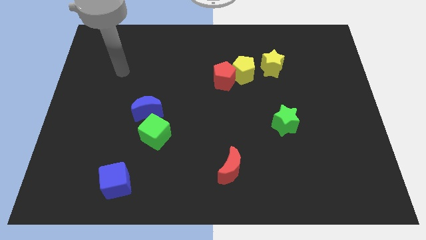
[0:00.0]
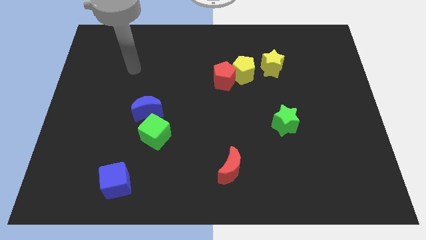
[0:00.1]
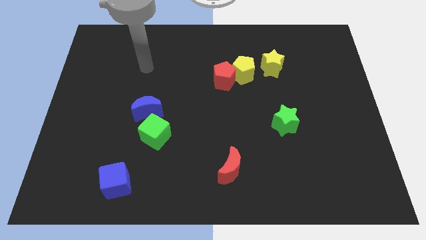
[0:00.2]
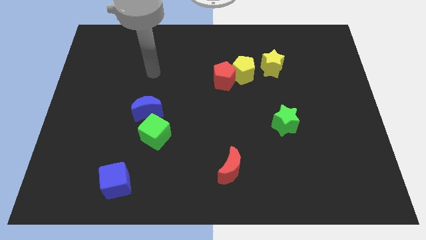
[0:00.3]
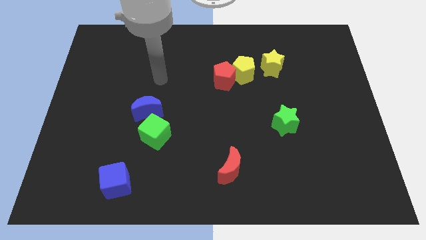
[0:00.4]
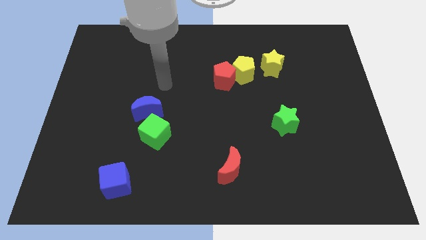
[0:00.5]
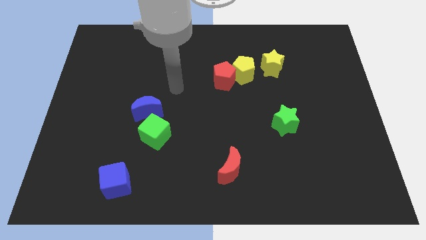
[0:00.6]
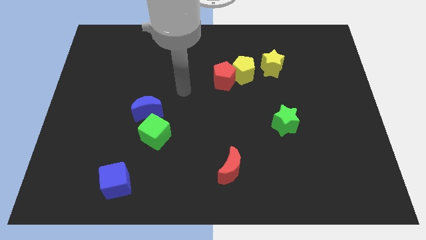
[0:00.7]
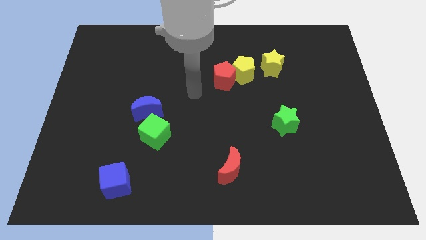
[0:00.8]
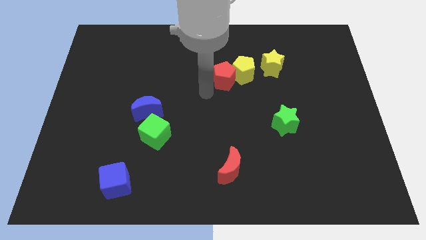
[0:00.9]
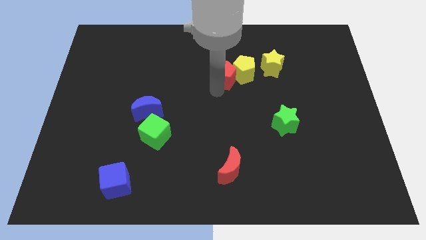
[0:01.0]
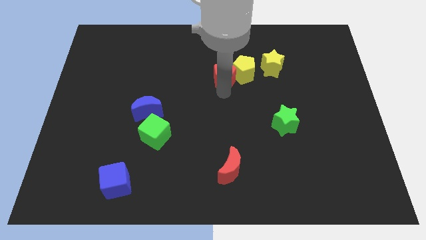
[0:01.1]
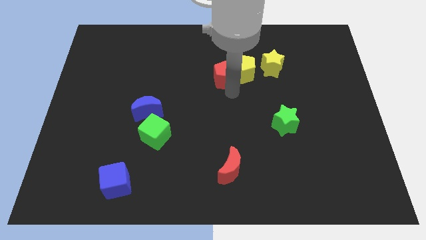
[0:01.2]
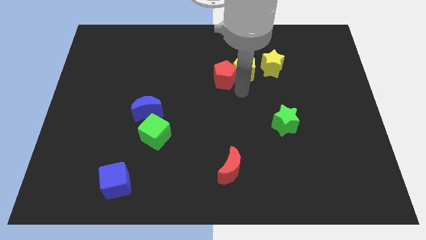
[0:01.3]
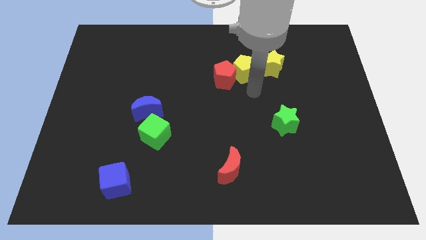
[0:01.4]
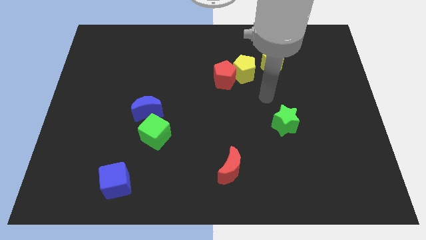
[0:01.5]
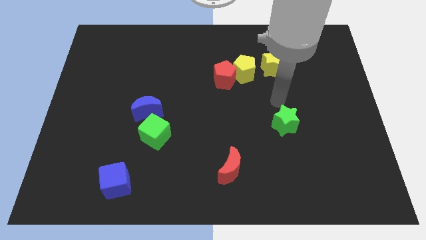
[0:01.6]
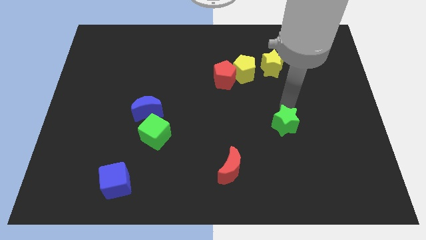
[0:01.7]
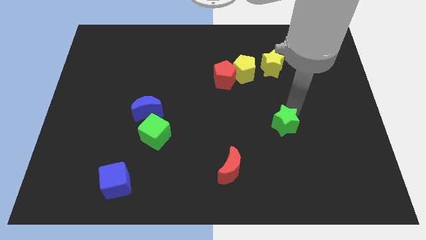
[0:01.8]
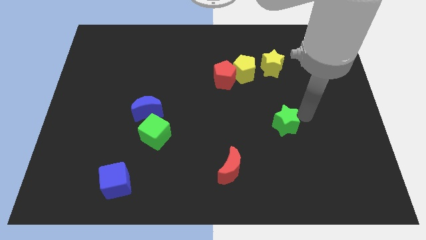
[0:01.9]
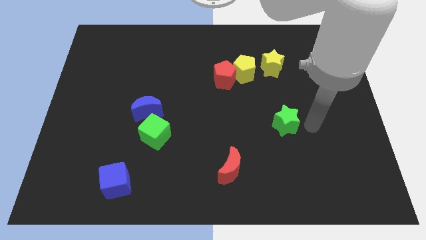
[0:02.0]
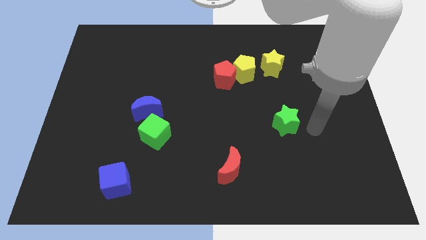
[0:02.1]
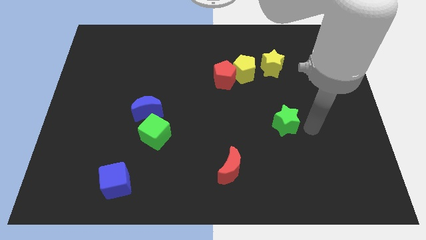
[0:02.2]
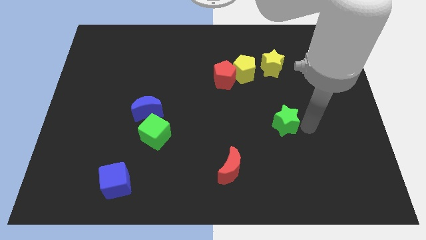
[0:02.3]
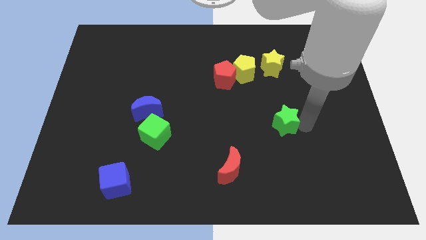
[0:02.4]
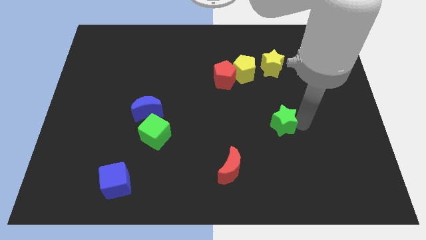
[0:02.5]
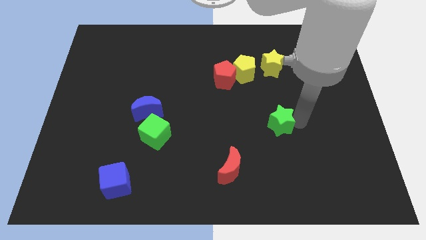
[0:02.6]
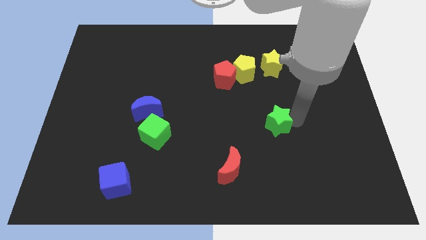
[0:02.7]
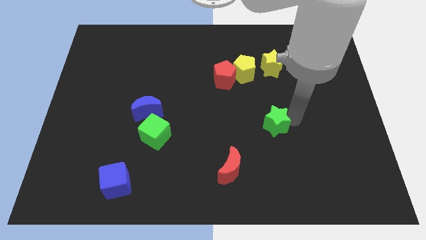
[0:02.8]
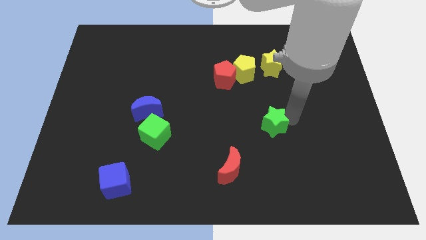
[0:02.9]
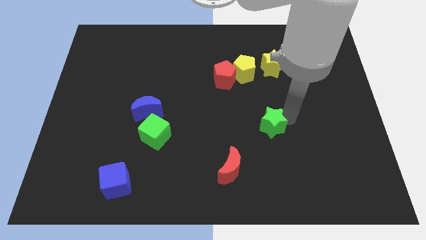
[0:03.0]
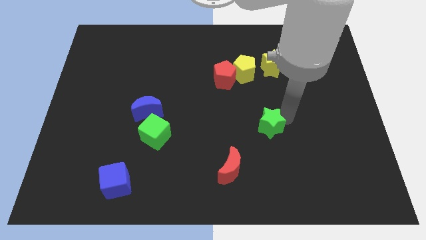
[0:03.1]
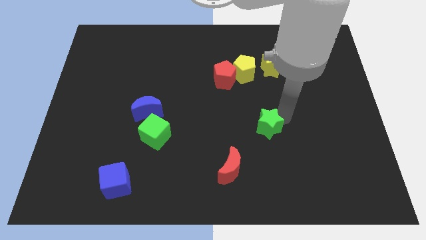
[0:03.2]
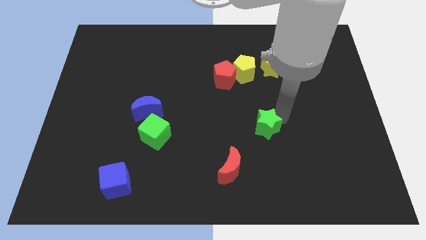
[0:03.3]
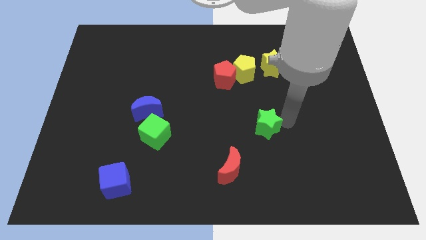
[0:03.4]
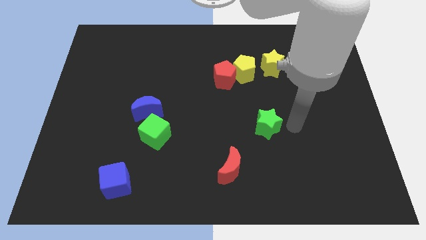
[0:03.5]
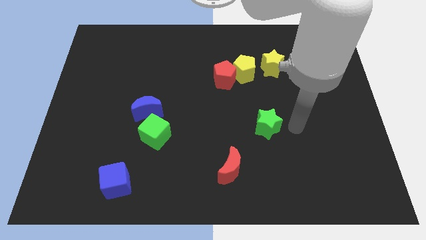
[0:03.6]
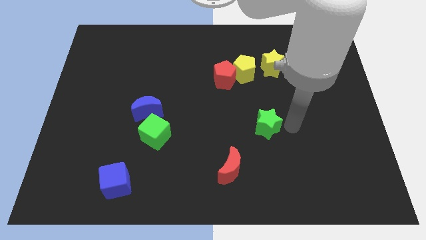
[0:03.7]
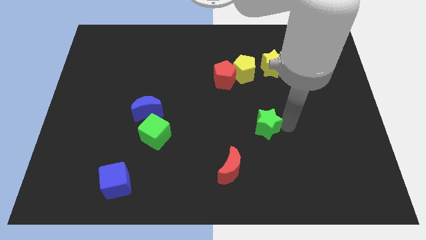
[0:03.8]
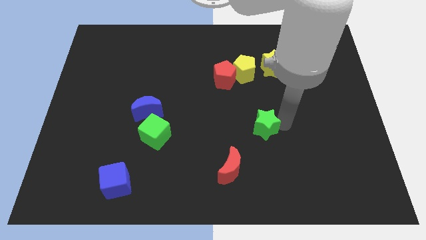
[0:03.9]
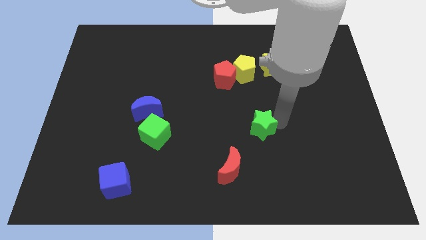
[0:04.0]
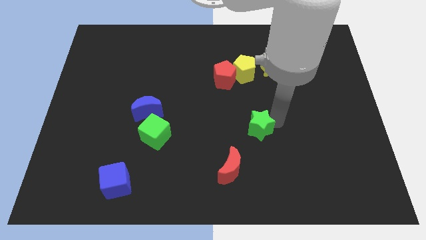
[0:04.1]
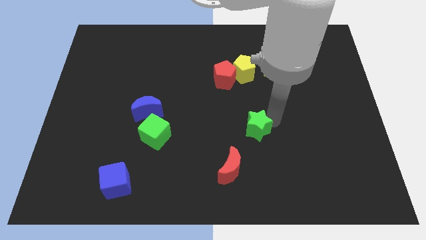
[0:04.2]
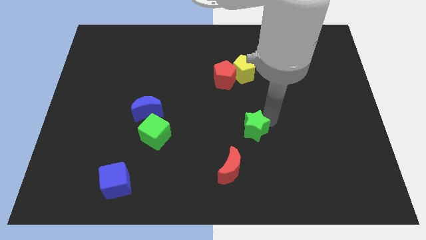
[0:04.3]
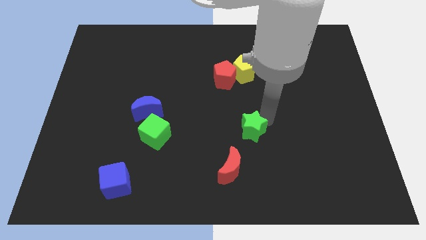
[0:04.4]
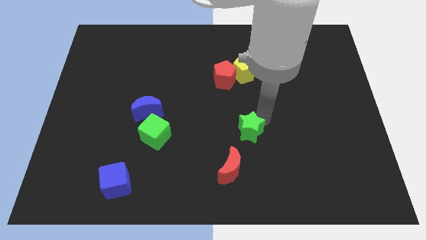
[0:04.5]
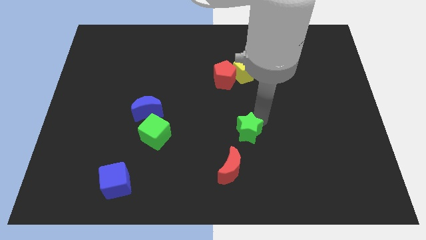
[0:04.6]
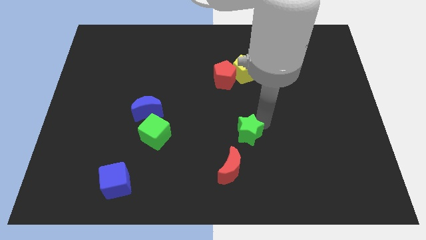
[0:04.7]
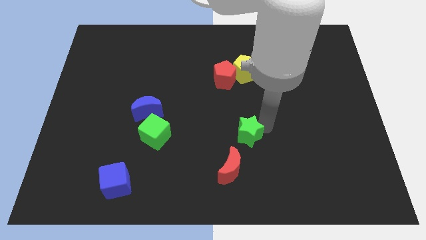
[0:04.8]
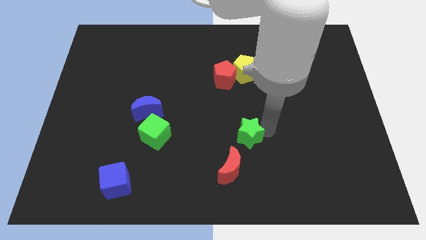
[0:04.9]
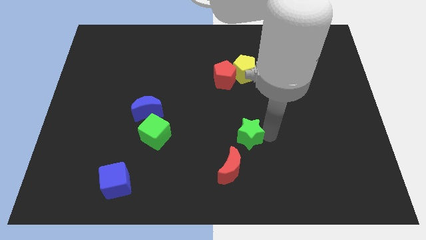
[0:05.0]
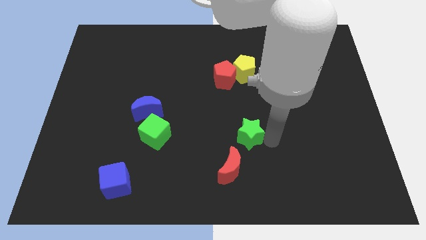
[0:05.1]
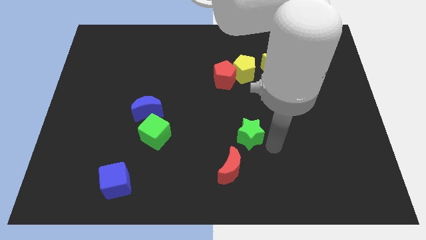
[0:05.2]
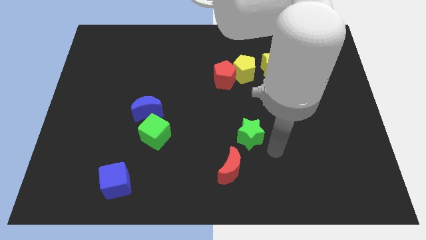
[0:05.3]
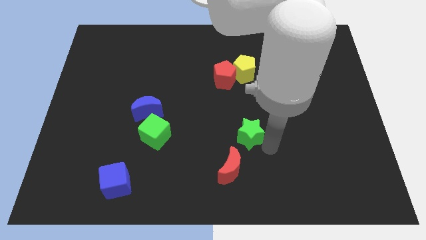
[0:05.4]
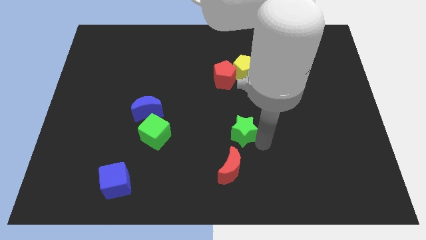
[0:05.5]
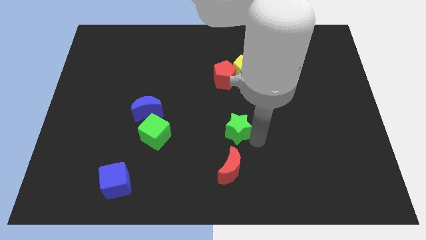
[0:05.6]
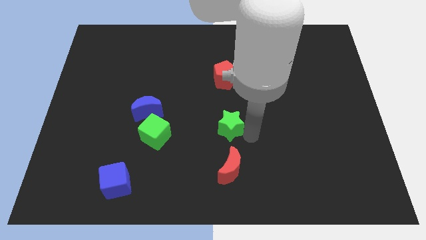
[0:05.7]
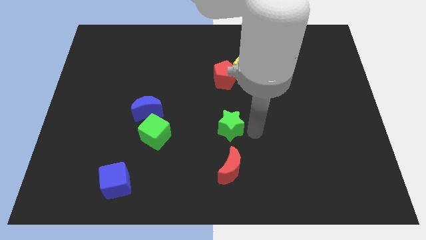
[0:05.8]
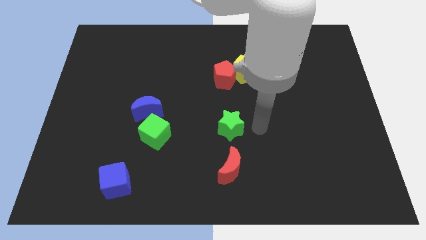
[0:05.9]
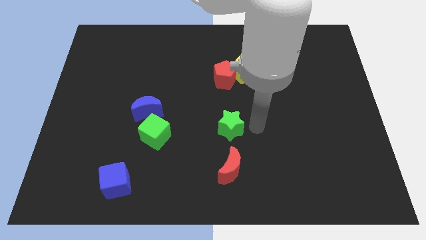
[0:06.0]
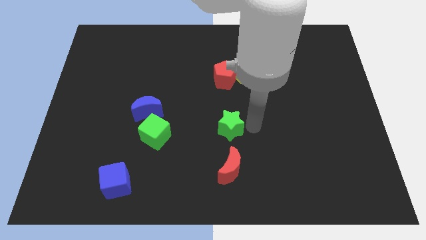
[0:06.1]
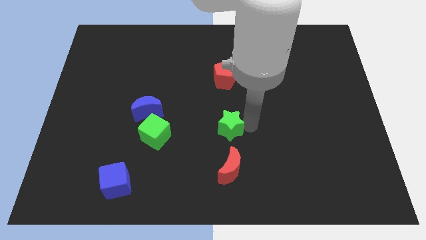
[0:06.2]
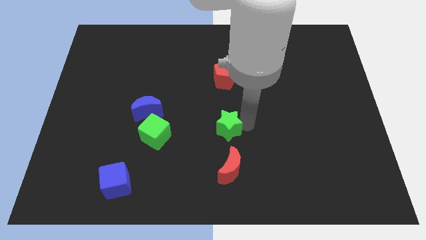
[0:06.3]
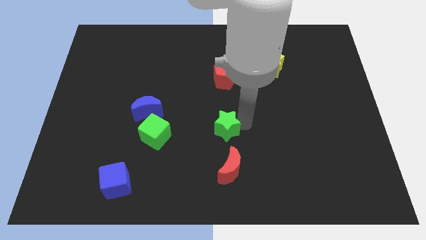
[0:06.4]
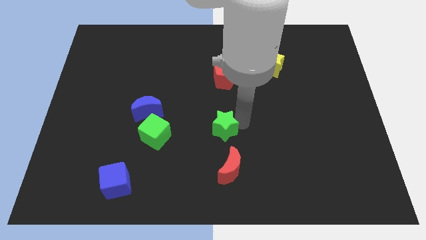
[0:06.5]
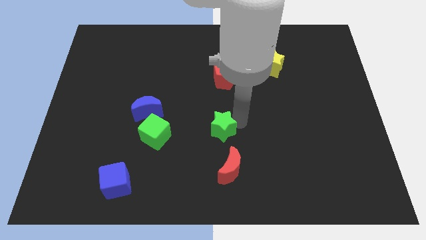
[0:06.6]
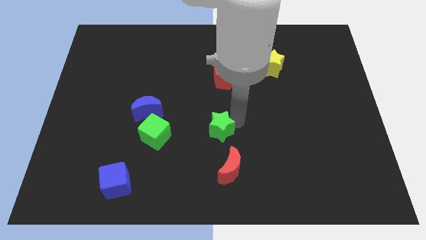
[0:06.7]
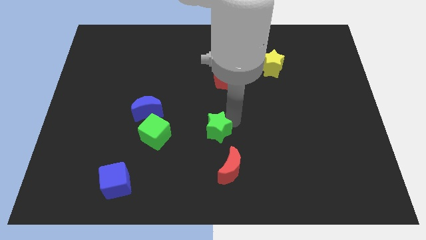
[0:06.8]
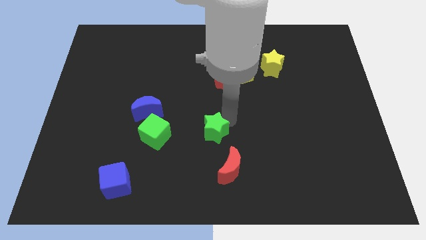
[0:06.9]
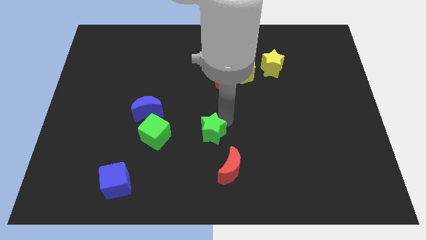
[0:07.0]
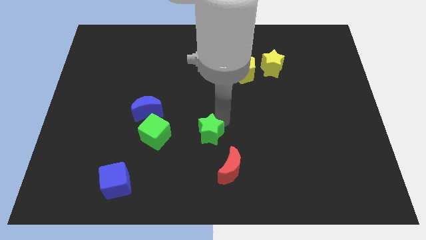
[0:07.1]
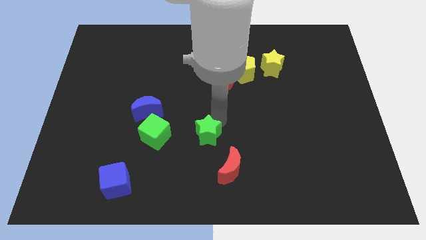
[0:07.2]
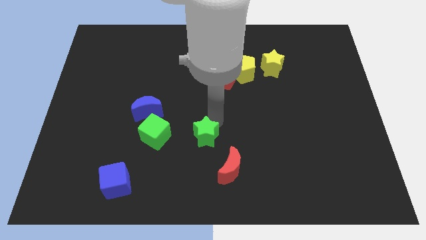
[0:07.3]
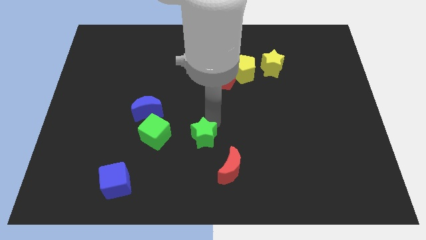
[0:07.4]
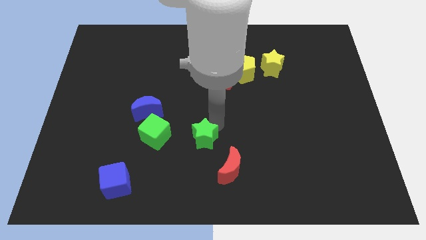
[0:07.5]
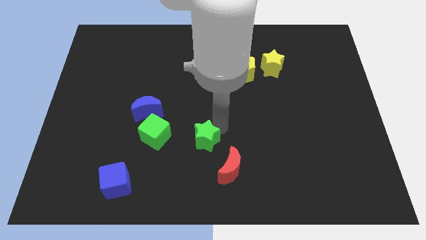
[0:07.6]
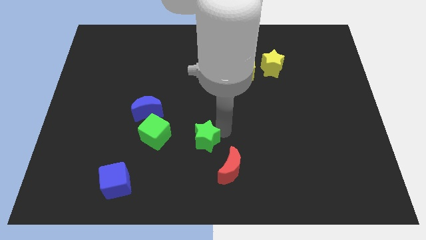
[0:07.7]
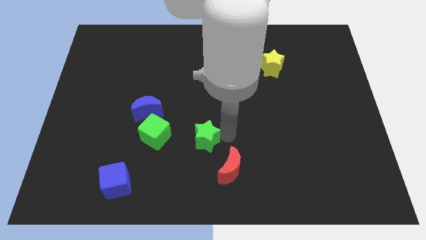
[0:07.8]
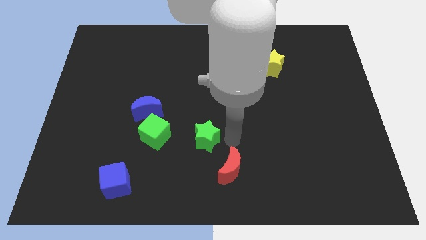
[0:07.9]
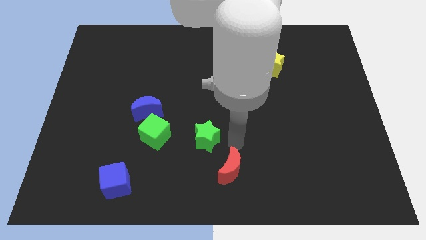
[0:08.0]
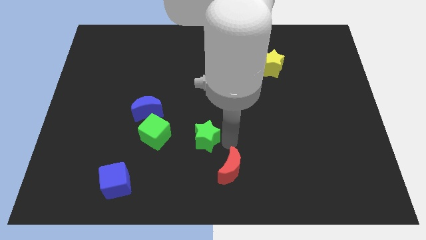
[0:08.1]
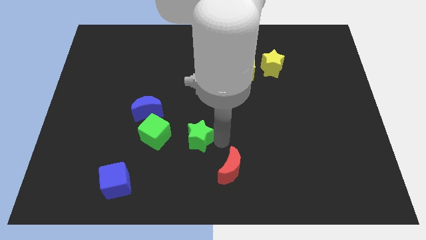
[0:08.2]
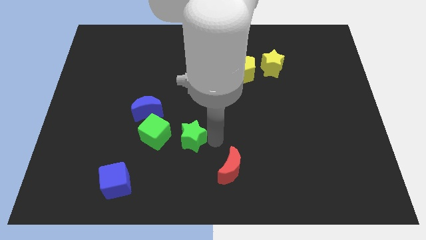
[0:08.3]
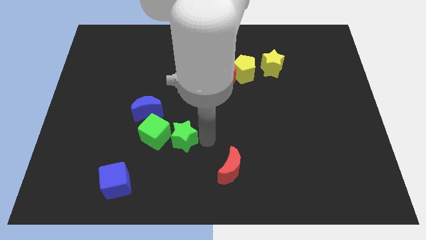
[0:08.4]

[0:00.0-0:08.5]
put the green star to the bottom right side of the blue moon
